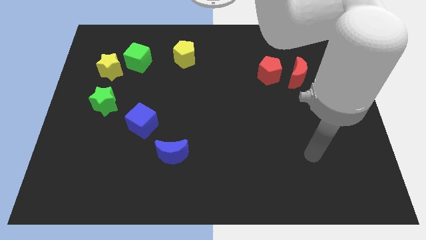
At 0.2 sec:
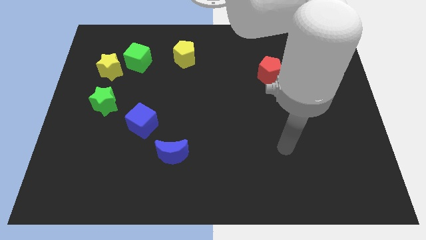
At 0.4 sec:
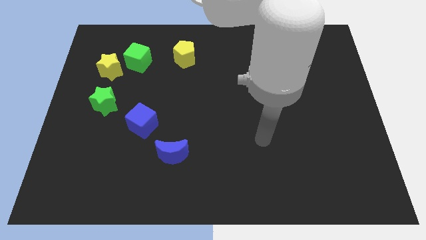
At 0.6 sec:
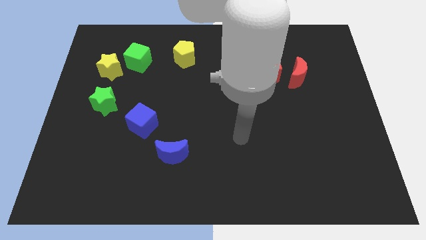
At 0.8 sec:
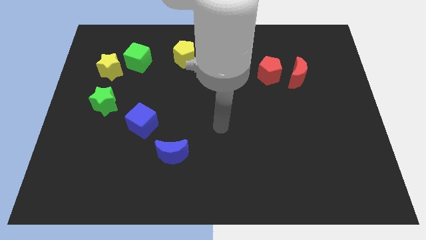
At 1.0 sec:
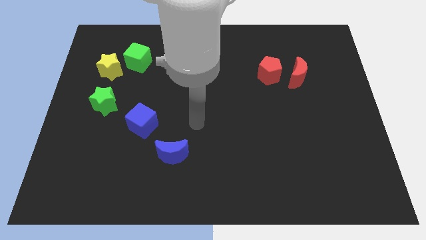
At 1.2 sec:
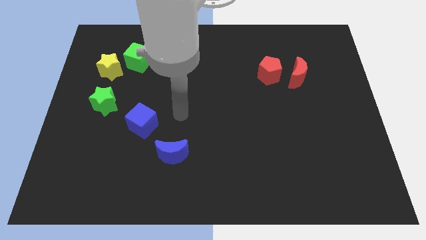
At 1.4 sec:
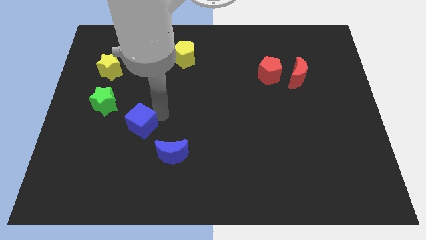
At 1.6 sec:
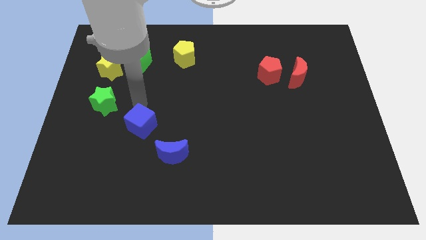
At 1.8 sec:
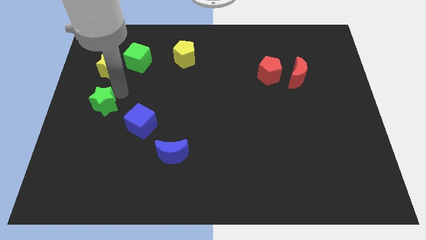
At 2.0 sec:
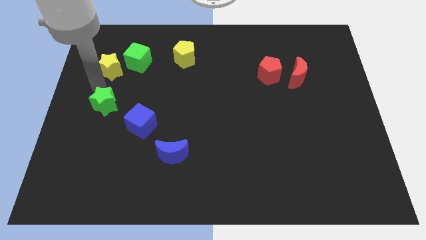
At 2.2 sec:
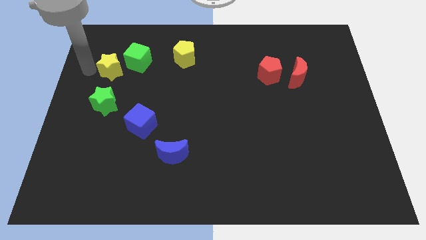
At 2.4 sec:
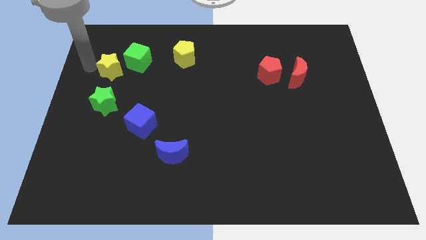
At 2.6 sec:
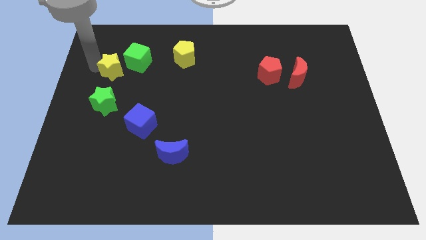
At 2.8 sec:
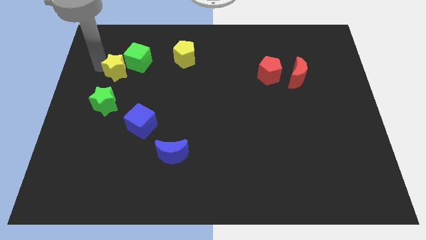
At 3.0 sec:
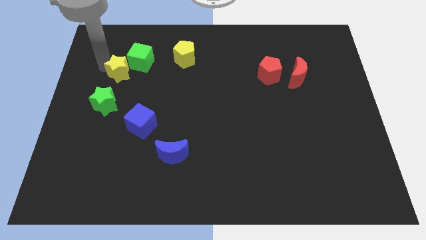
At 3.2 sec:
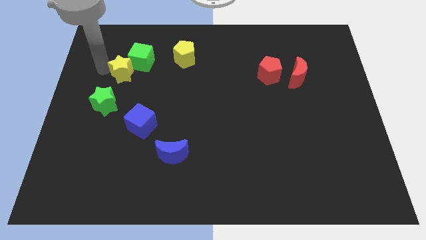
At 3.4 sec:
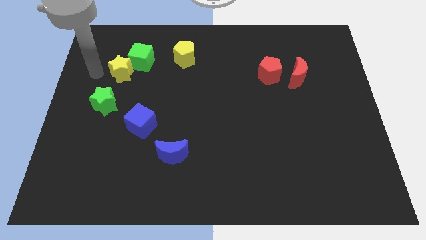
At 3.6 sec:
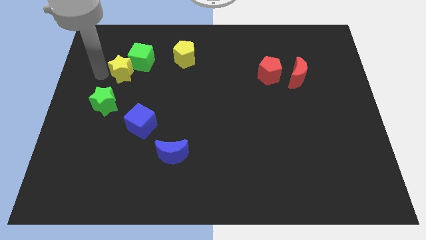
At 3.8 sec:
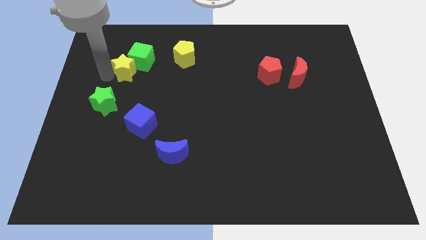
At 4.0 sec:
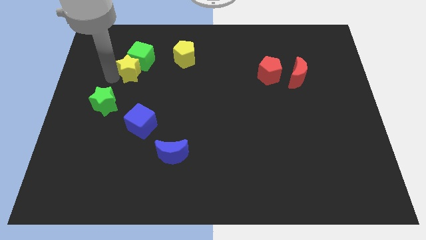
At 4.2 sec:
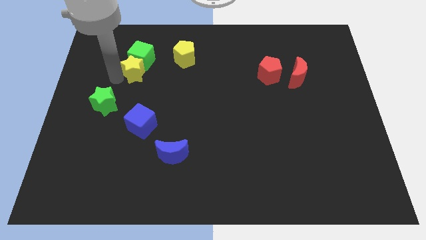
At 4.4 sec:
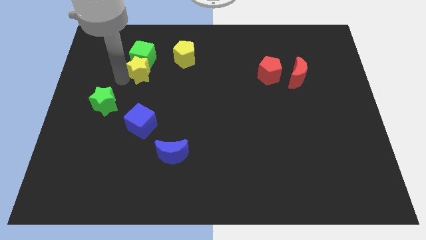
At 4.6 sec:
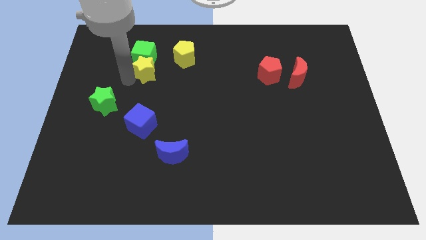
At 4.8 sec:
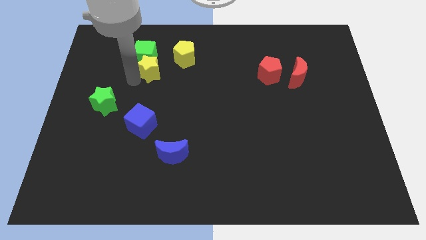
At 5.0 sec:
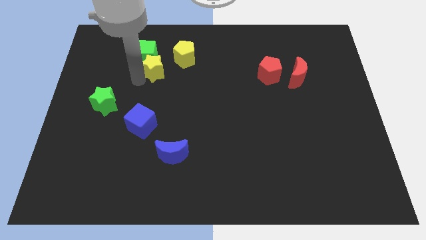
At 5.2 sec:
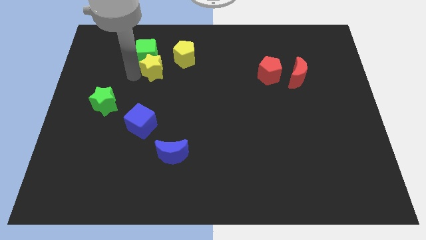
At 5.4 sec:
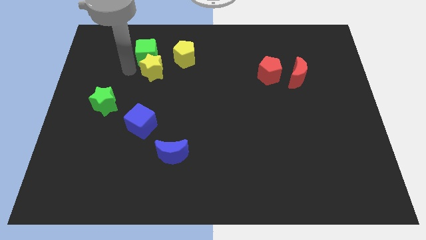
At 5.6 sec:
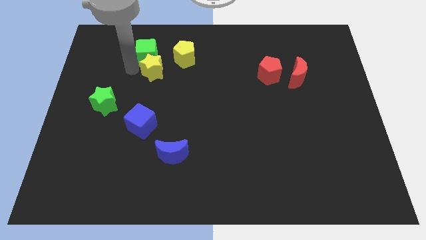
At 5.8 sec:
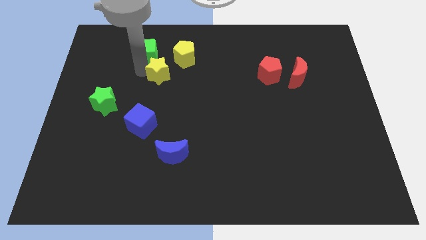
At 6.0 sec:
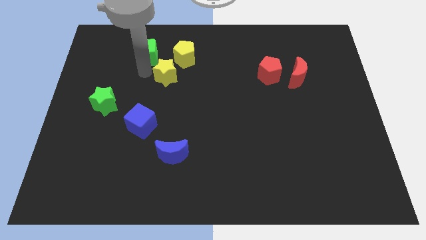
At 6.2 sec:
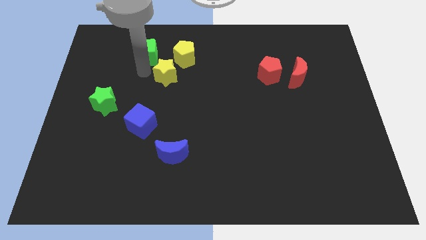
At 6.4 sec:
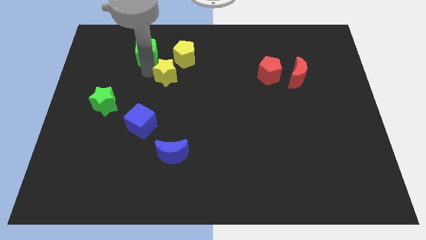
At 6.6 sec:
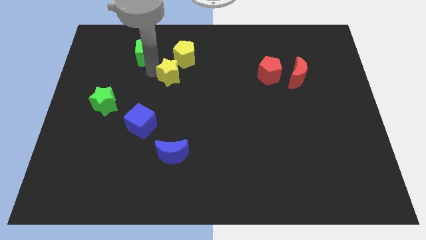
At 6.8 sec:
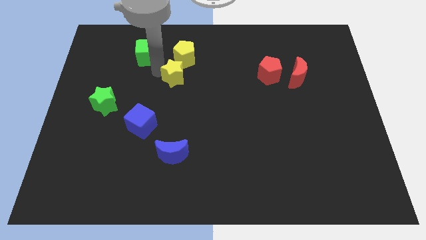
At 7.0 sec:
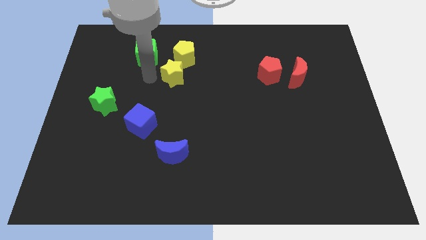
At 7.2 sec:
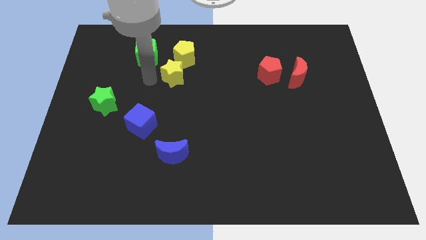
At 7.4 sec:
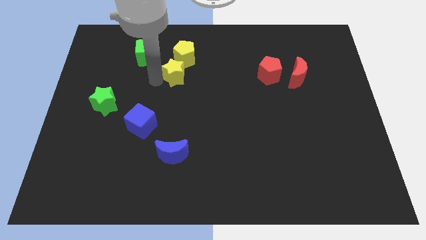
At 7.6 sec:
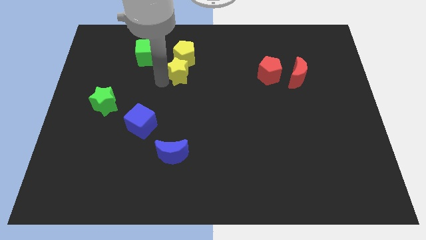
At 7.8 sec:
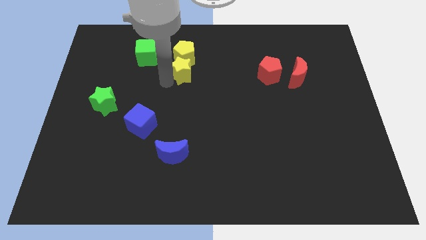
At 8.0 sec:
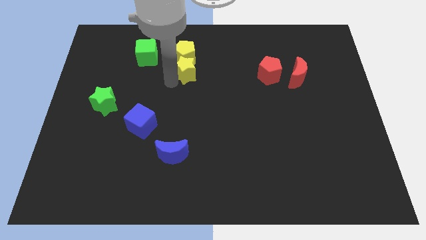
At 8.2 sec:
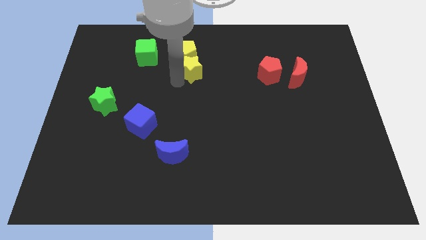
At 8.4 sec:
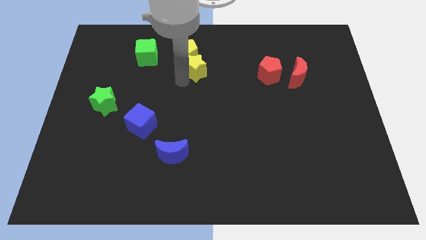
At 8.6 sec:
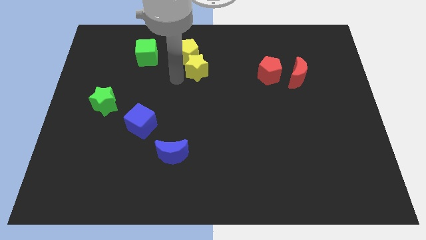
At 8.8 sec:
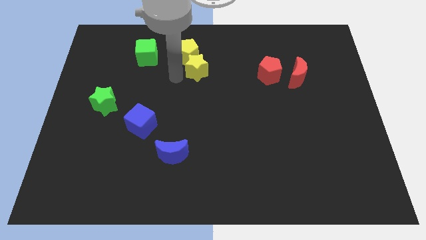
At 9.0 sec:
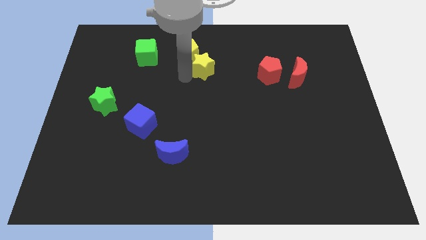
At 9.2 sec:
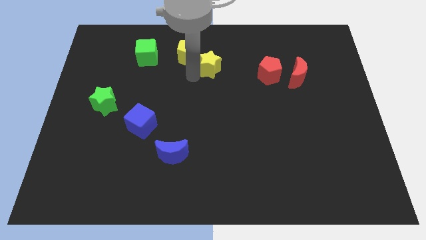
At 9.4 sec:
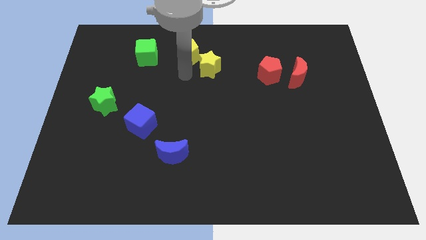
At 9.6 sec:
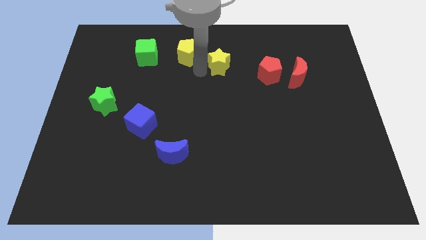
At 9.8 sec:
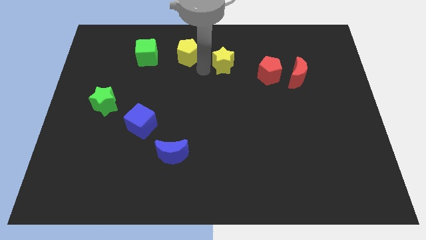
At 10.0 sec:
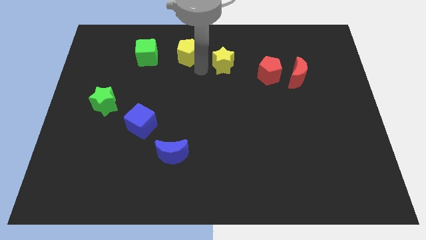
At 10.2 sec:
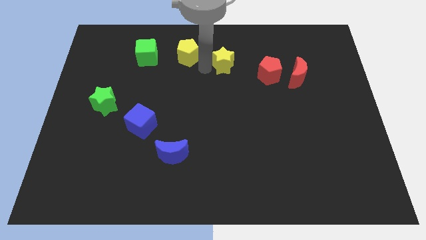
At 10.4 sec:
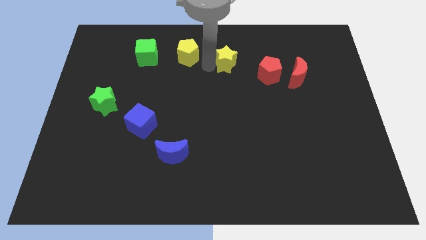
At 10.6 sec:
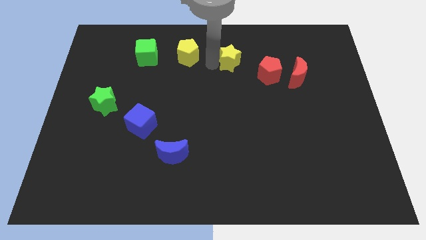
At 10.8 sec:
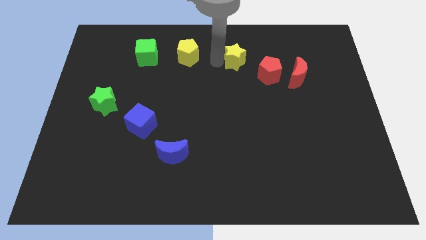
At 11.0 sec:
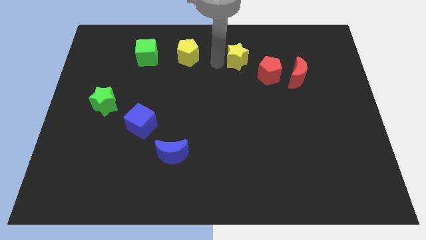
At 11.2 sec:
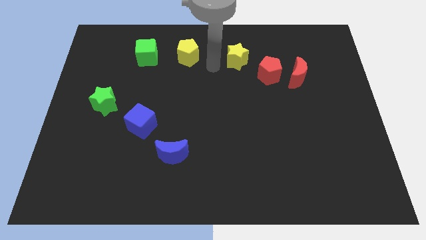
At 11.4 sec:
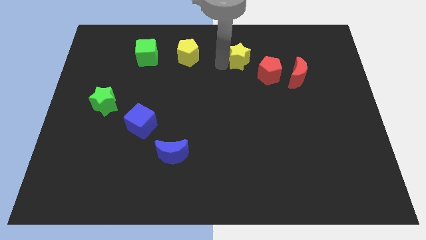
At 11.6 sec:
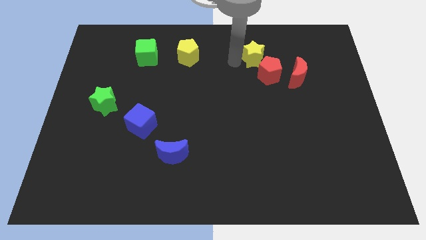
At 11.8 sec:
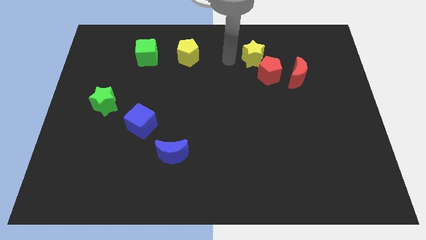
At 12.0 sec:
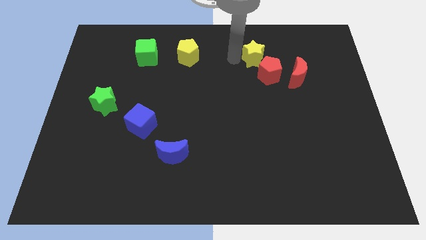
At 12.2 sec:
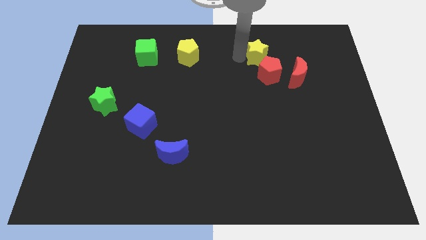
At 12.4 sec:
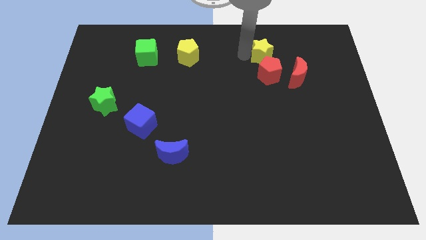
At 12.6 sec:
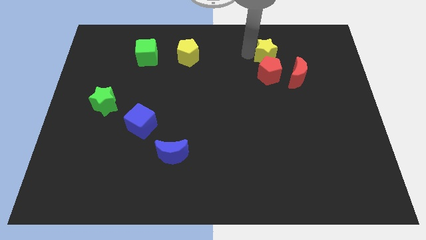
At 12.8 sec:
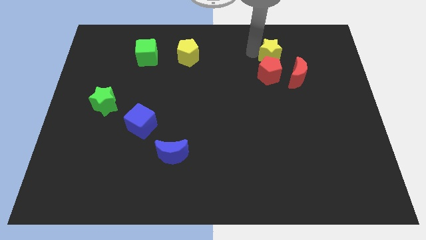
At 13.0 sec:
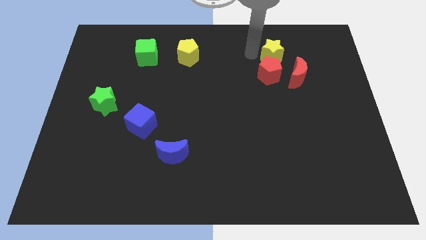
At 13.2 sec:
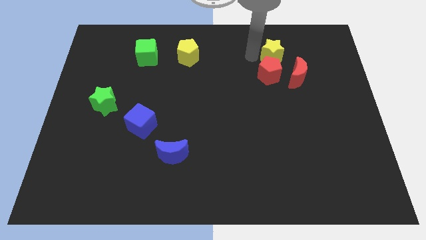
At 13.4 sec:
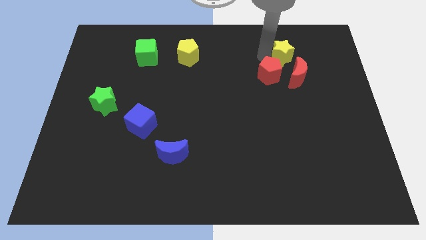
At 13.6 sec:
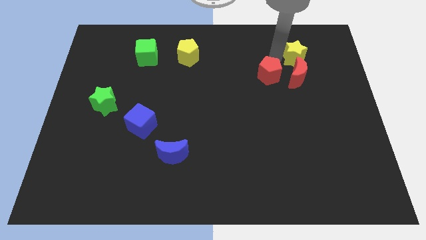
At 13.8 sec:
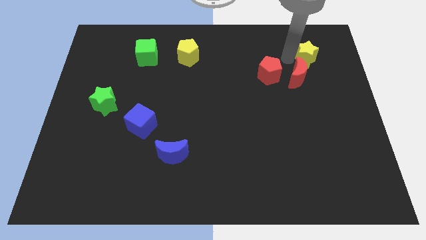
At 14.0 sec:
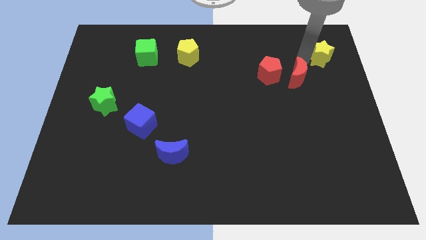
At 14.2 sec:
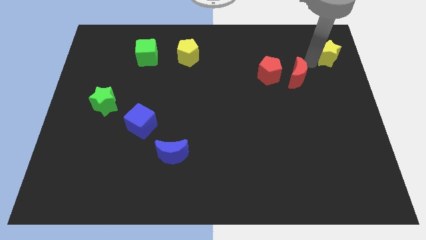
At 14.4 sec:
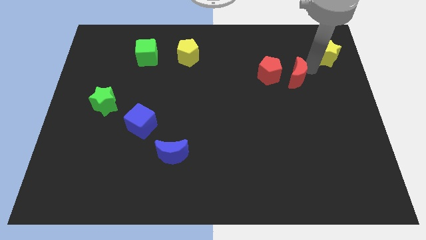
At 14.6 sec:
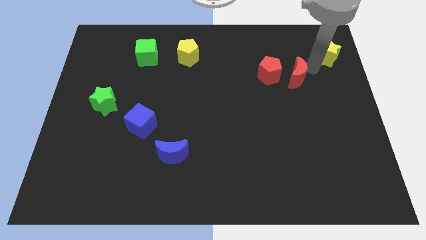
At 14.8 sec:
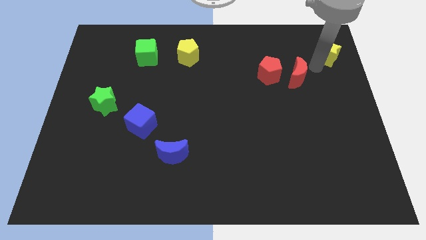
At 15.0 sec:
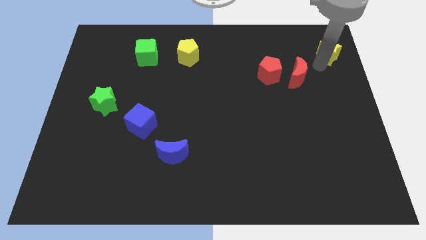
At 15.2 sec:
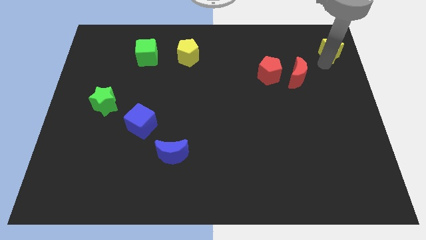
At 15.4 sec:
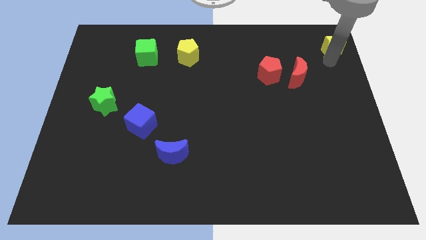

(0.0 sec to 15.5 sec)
move the yellow star to the top right
